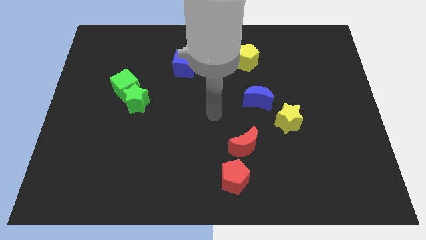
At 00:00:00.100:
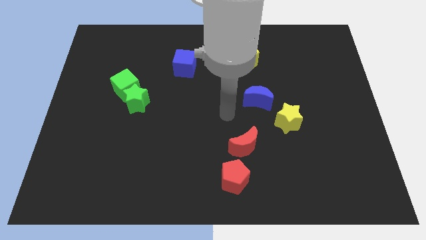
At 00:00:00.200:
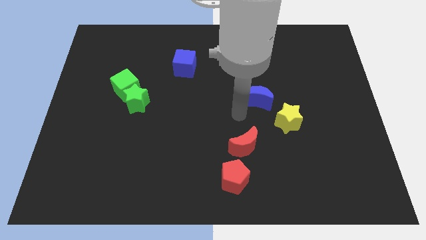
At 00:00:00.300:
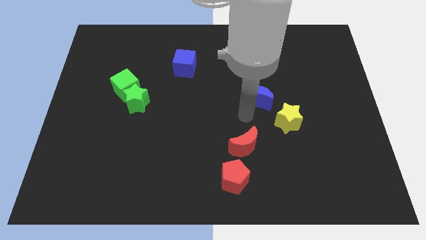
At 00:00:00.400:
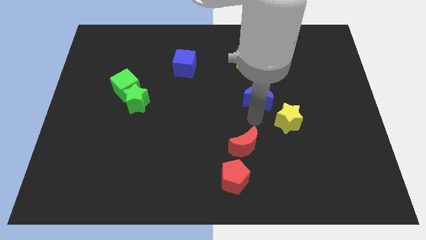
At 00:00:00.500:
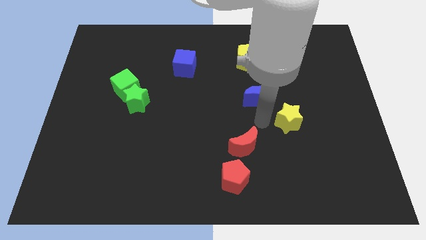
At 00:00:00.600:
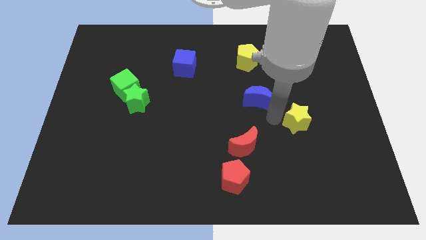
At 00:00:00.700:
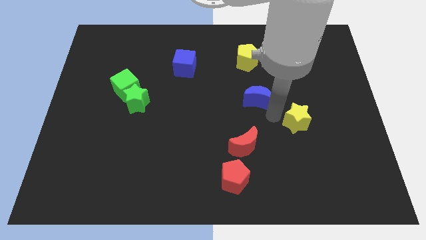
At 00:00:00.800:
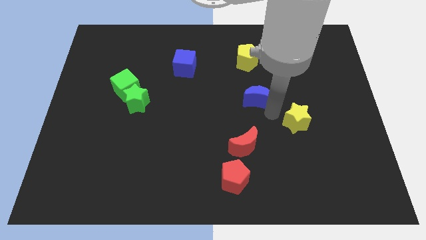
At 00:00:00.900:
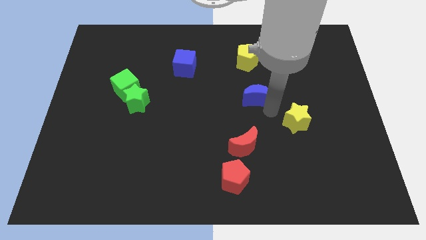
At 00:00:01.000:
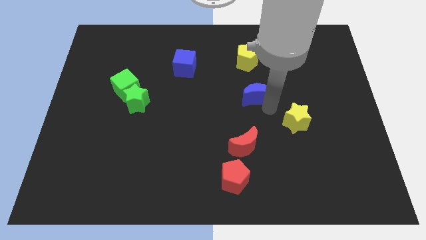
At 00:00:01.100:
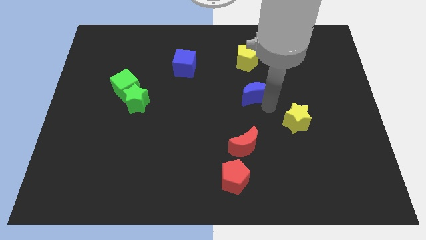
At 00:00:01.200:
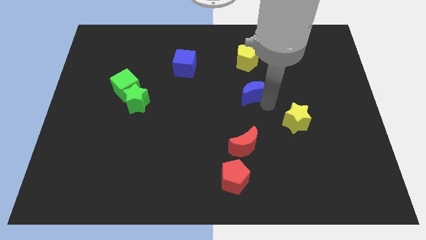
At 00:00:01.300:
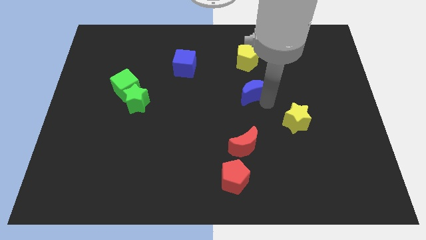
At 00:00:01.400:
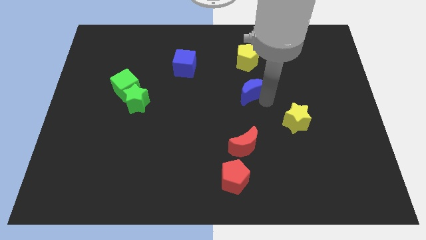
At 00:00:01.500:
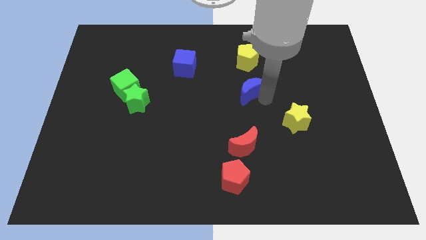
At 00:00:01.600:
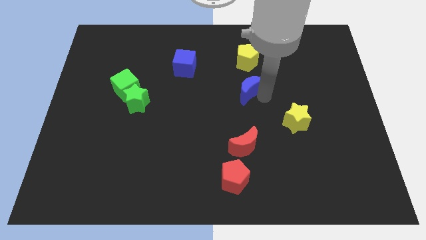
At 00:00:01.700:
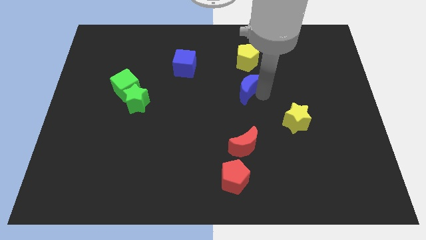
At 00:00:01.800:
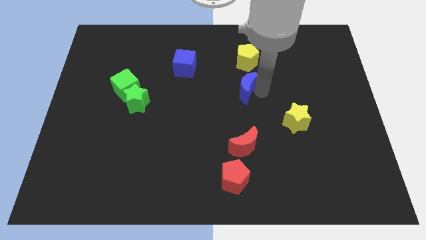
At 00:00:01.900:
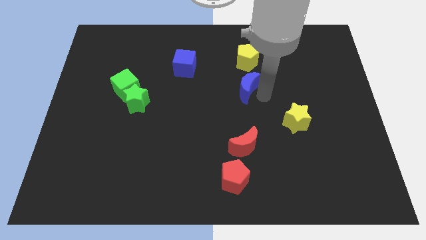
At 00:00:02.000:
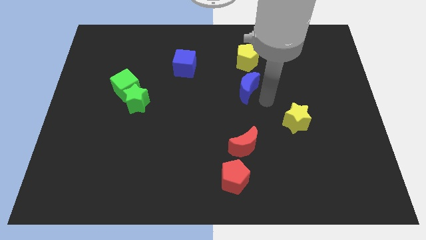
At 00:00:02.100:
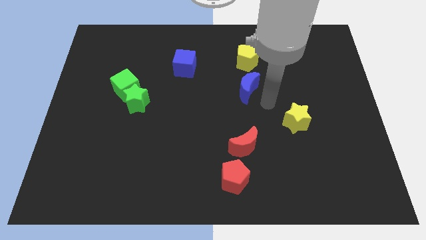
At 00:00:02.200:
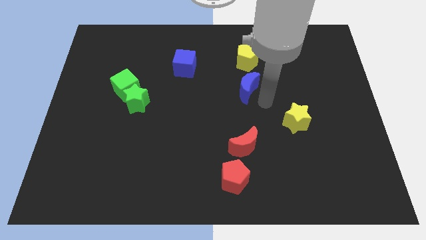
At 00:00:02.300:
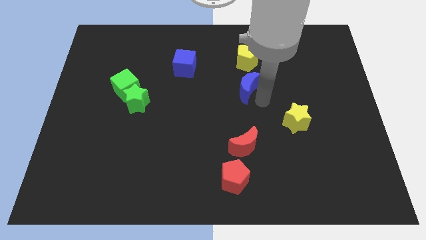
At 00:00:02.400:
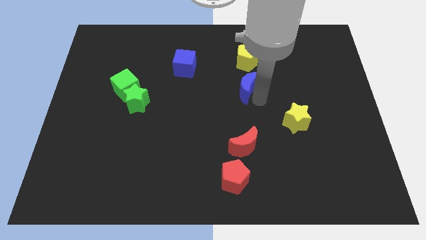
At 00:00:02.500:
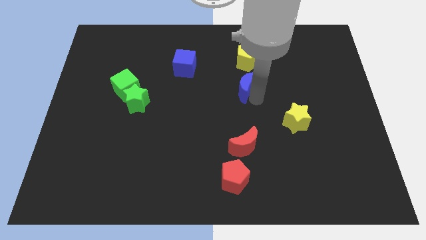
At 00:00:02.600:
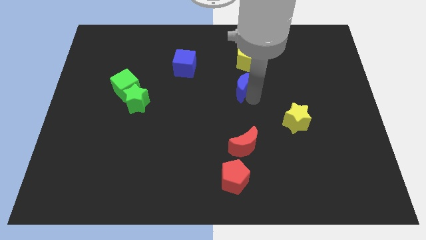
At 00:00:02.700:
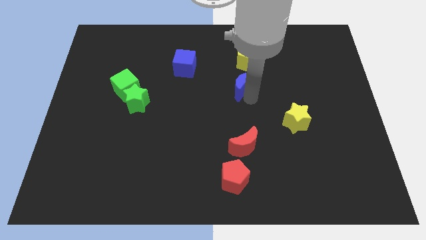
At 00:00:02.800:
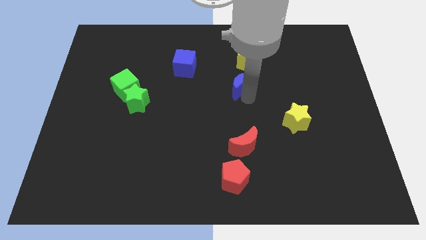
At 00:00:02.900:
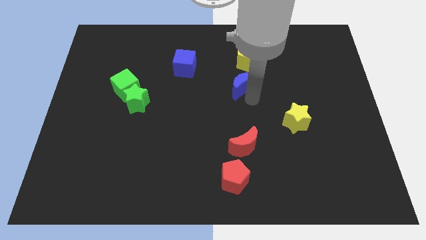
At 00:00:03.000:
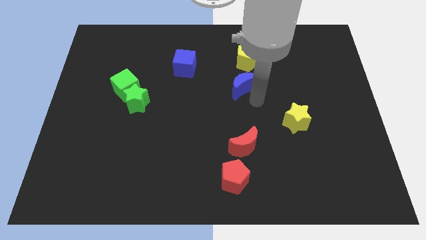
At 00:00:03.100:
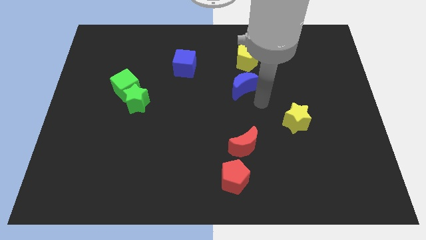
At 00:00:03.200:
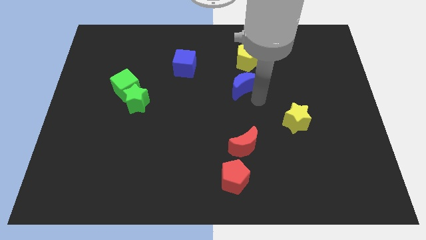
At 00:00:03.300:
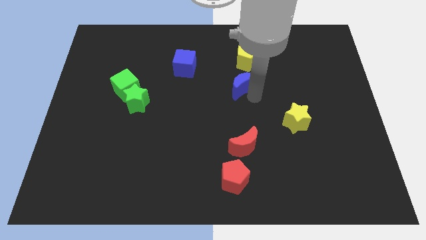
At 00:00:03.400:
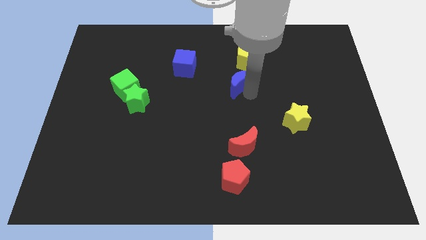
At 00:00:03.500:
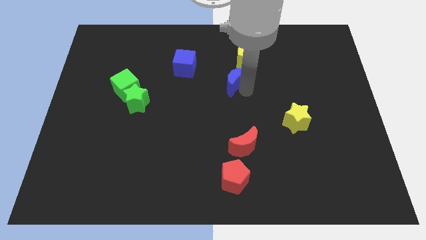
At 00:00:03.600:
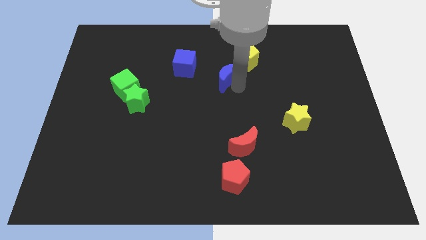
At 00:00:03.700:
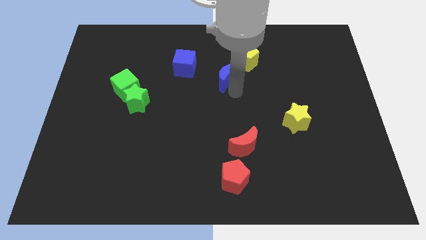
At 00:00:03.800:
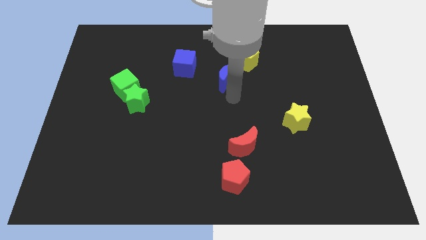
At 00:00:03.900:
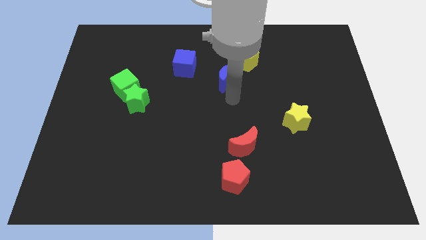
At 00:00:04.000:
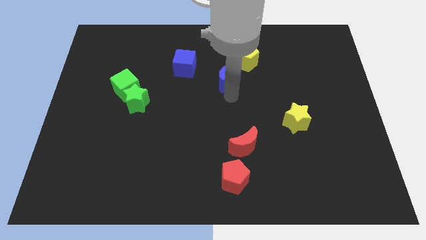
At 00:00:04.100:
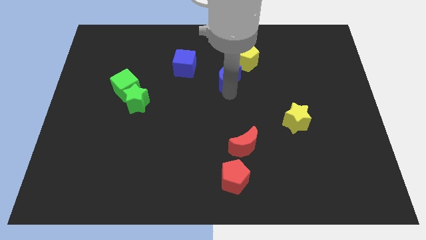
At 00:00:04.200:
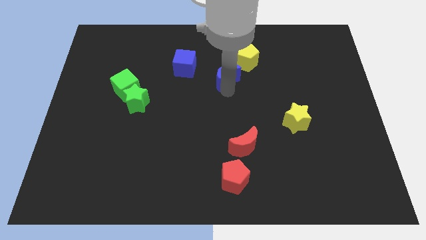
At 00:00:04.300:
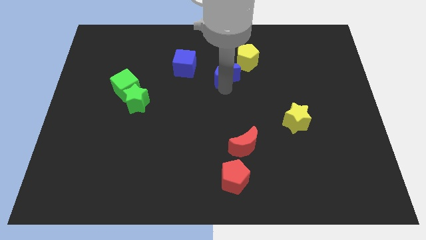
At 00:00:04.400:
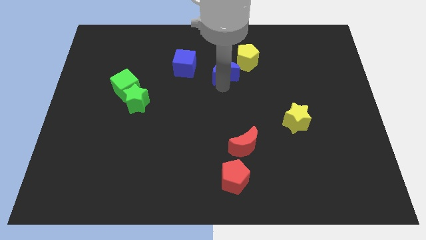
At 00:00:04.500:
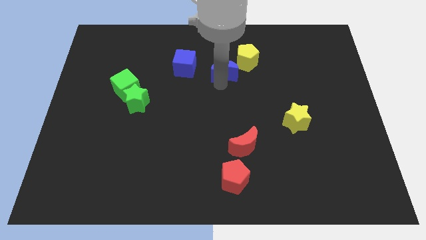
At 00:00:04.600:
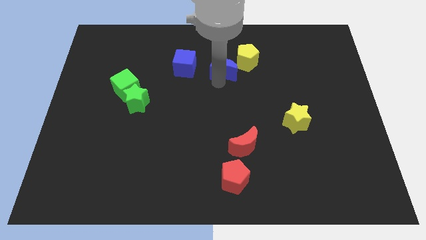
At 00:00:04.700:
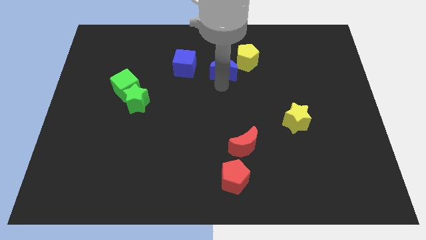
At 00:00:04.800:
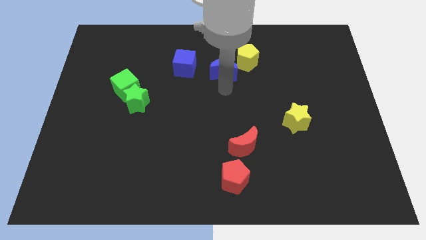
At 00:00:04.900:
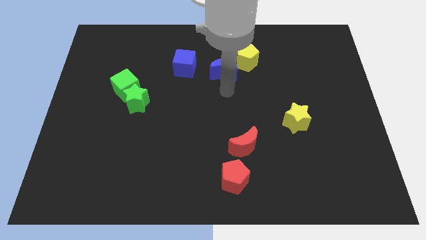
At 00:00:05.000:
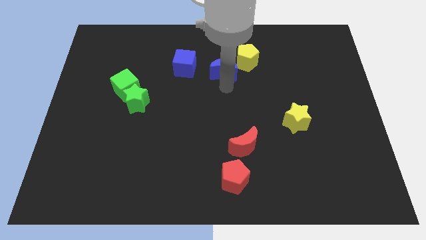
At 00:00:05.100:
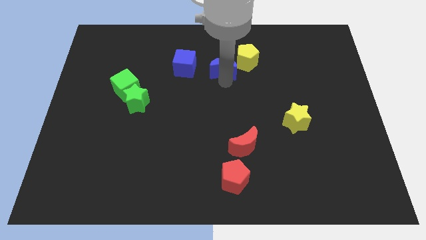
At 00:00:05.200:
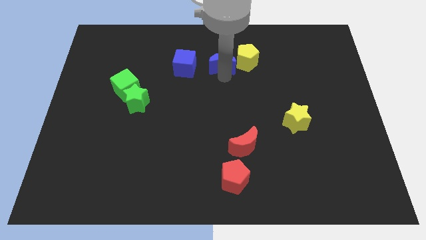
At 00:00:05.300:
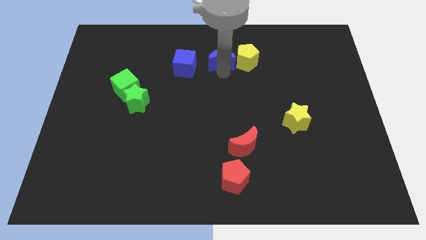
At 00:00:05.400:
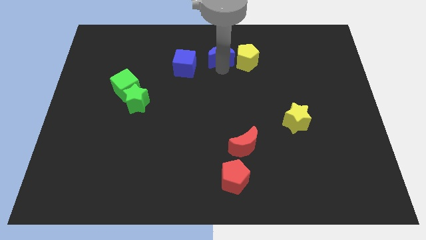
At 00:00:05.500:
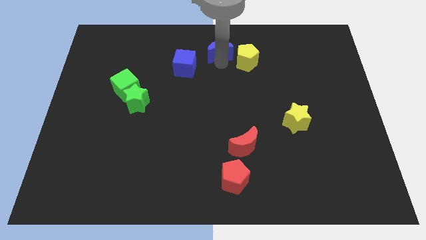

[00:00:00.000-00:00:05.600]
slide the blue moon to the top

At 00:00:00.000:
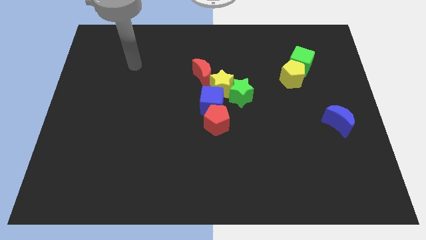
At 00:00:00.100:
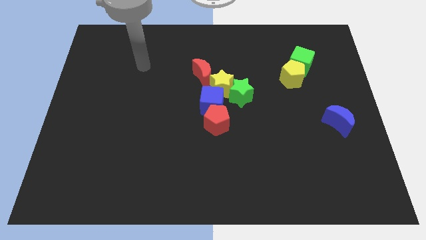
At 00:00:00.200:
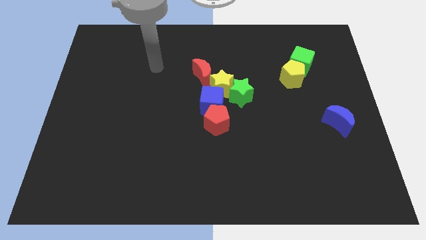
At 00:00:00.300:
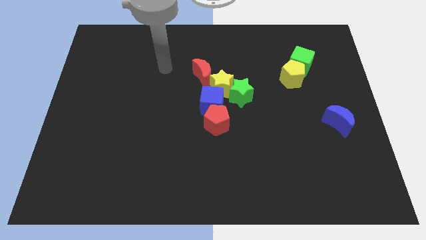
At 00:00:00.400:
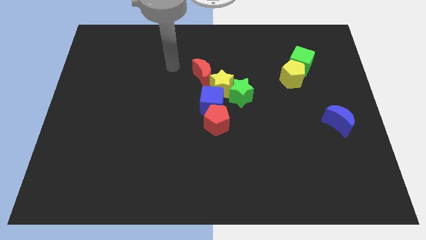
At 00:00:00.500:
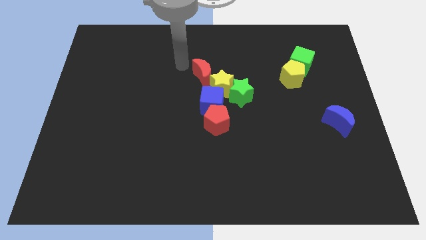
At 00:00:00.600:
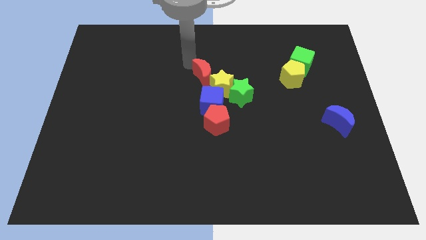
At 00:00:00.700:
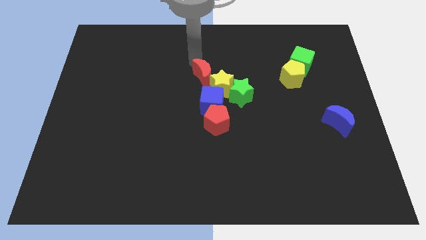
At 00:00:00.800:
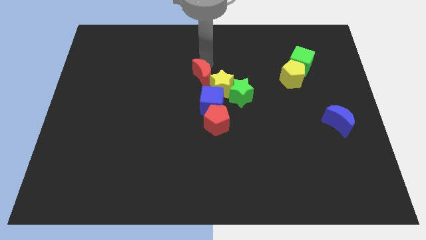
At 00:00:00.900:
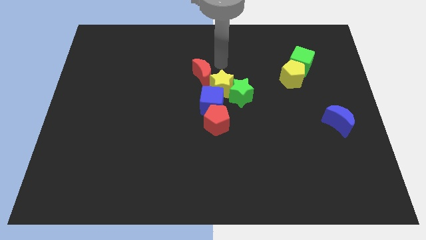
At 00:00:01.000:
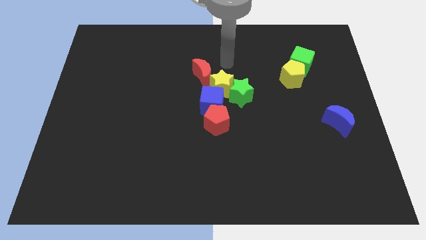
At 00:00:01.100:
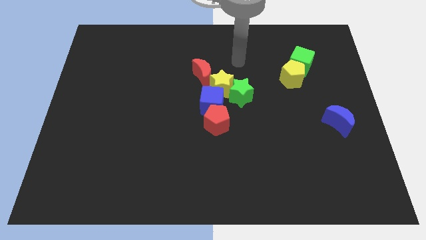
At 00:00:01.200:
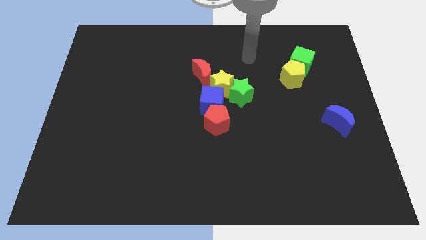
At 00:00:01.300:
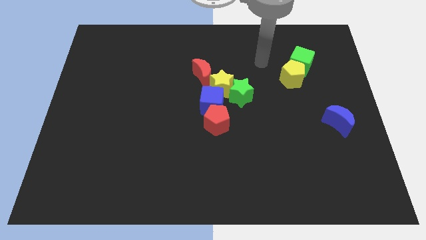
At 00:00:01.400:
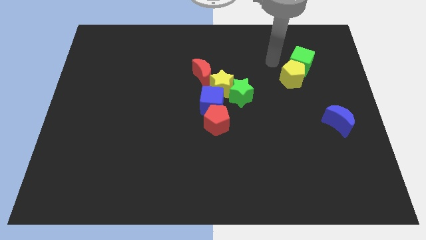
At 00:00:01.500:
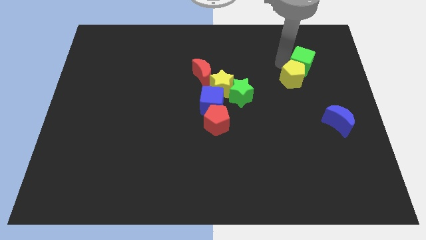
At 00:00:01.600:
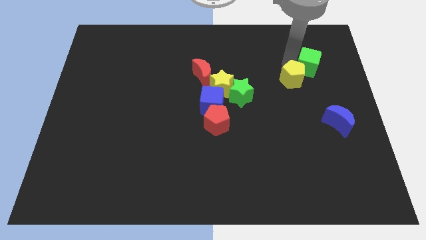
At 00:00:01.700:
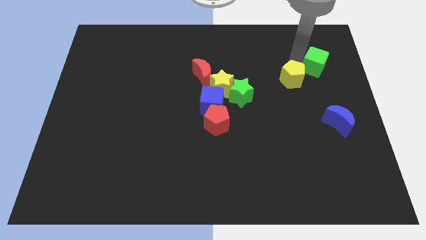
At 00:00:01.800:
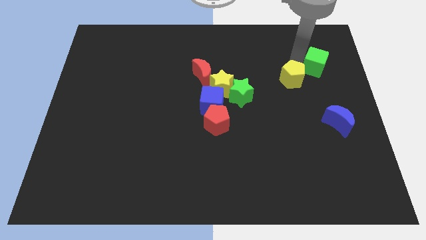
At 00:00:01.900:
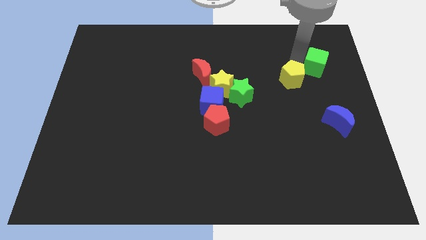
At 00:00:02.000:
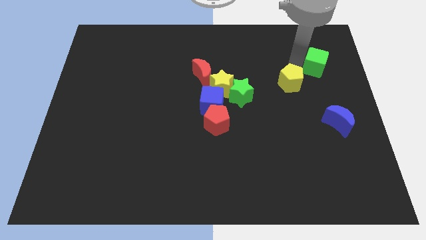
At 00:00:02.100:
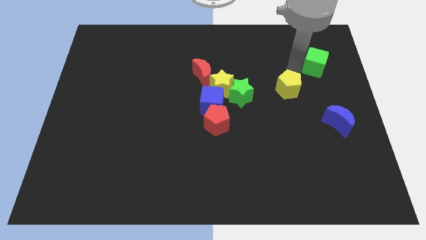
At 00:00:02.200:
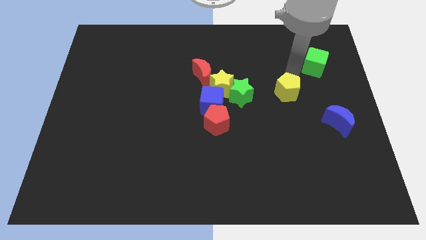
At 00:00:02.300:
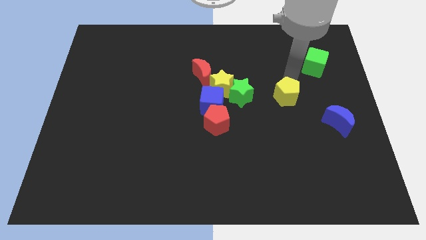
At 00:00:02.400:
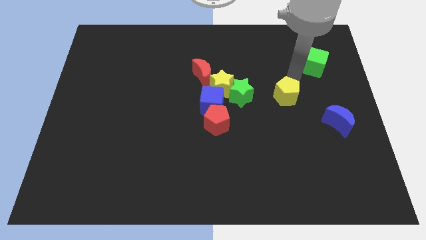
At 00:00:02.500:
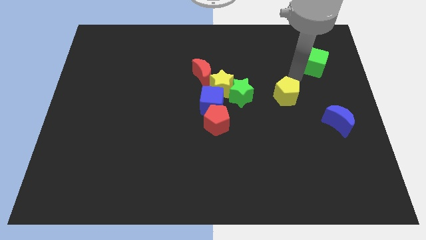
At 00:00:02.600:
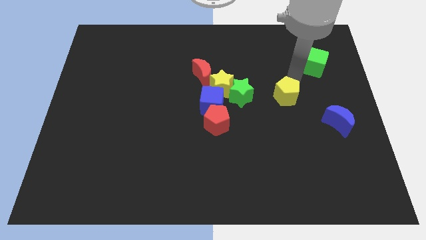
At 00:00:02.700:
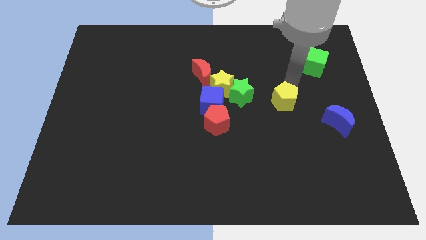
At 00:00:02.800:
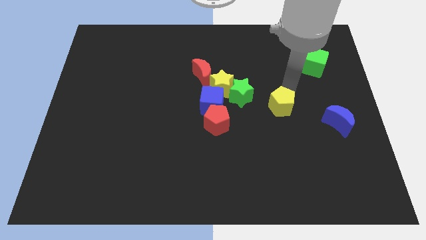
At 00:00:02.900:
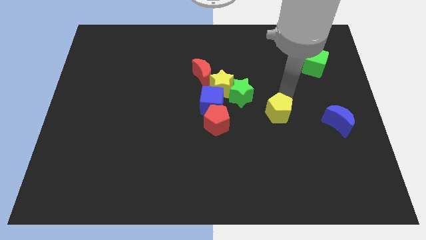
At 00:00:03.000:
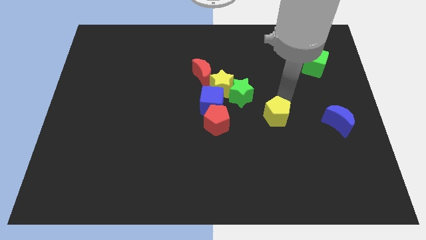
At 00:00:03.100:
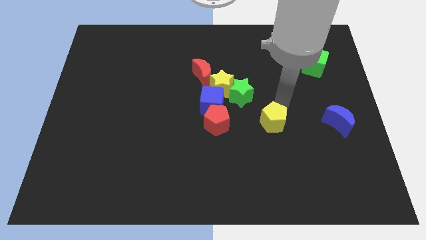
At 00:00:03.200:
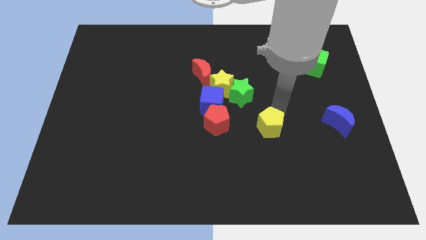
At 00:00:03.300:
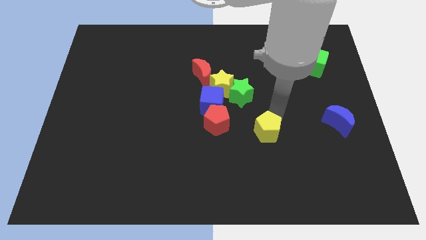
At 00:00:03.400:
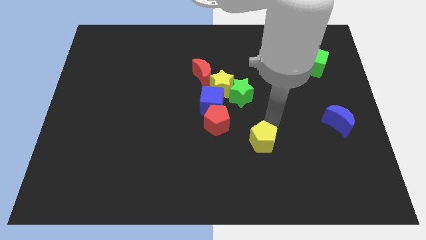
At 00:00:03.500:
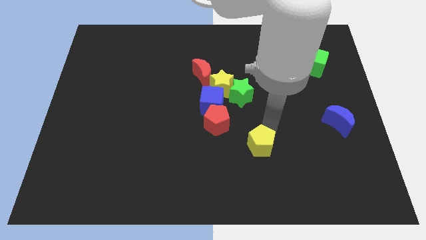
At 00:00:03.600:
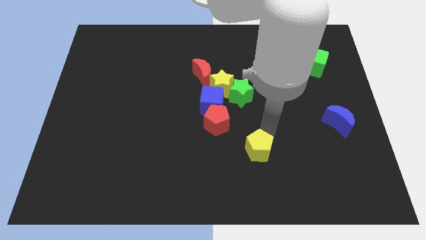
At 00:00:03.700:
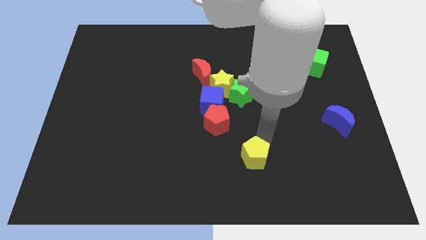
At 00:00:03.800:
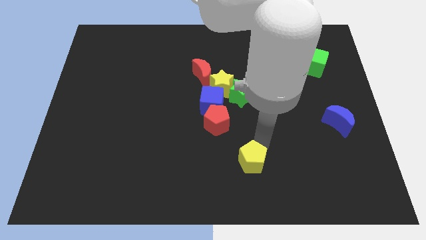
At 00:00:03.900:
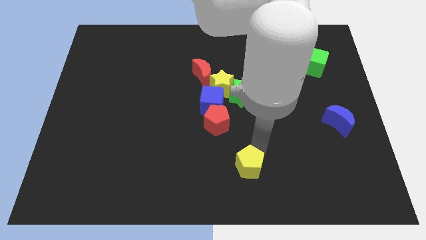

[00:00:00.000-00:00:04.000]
move the yellow pentagon to the bottom side
